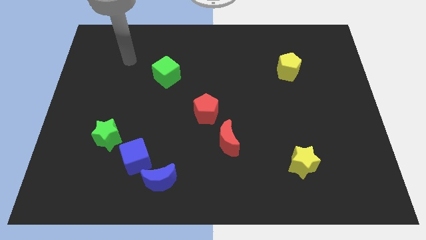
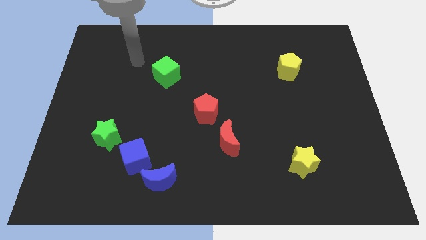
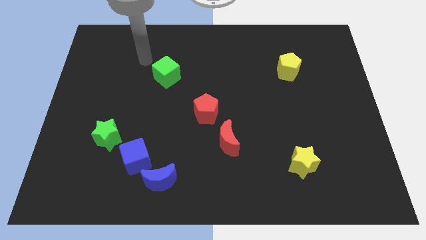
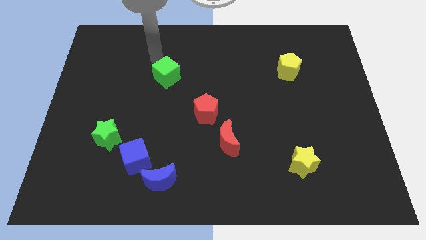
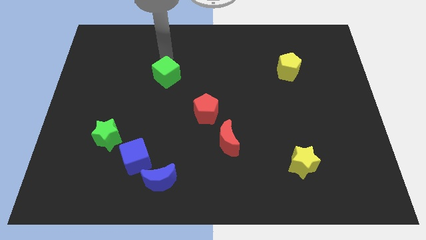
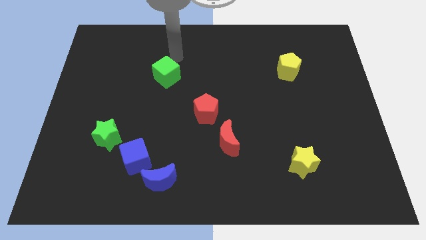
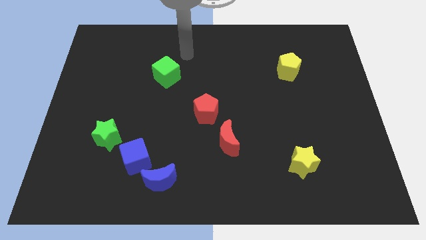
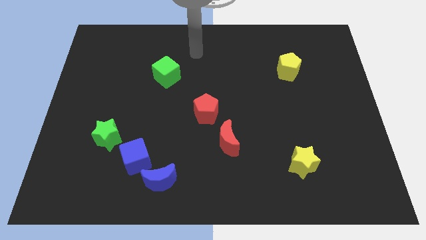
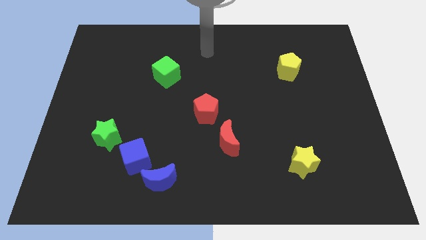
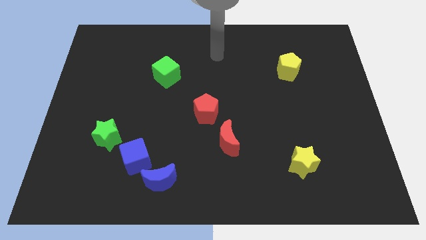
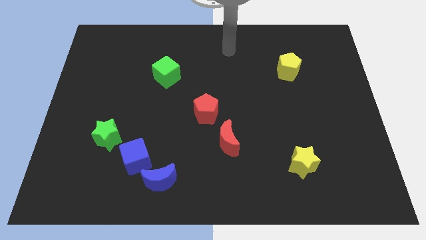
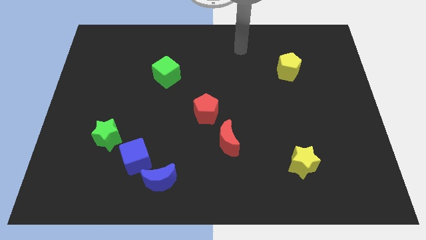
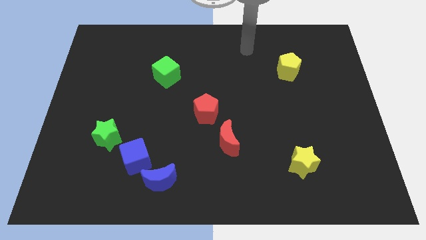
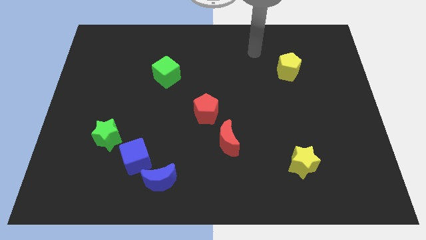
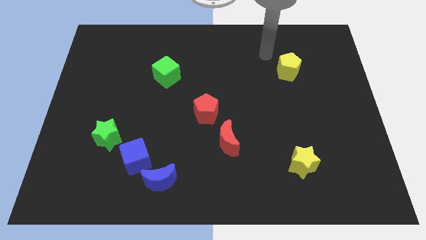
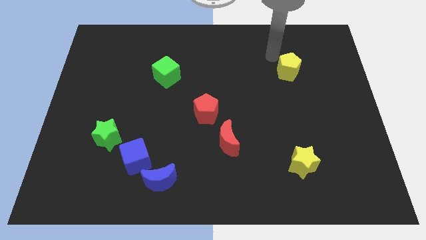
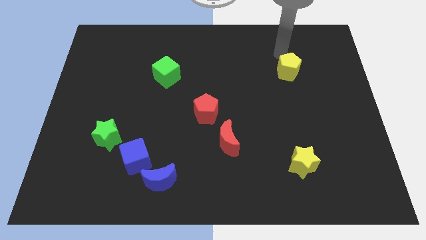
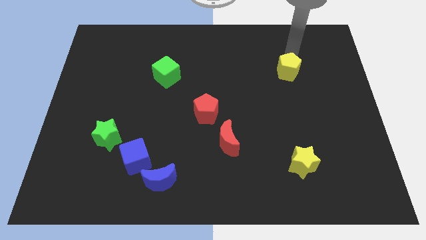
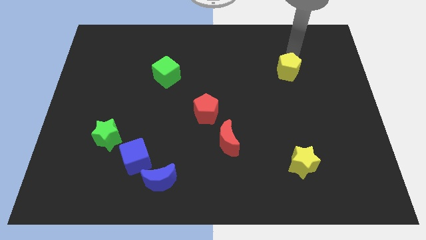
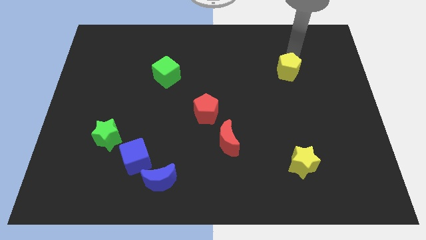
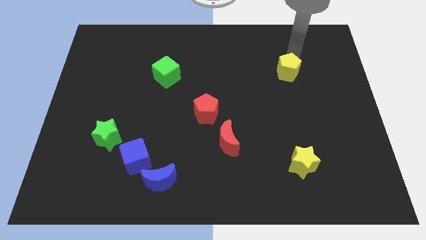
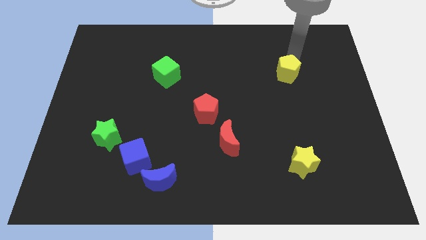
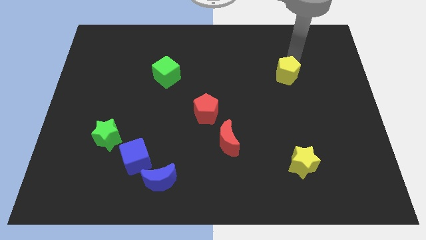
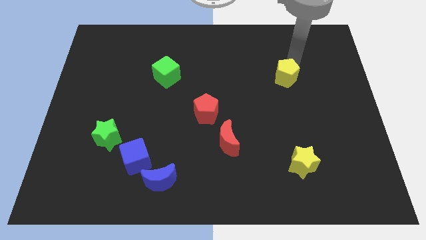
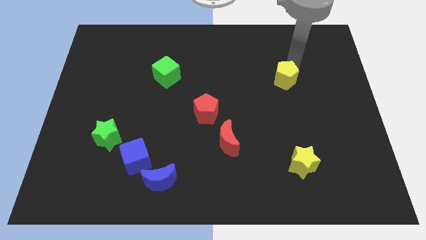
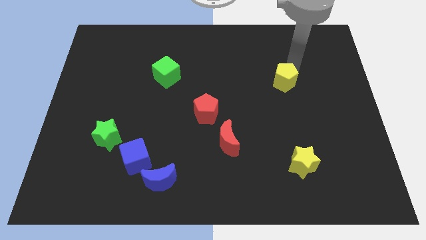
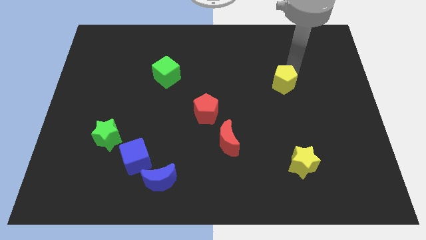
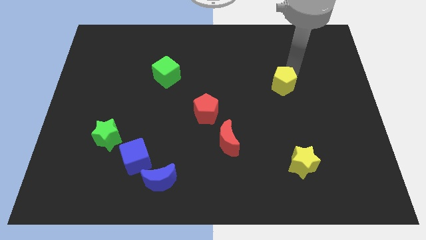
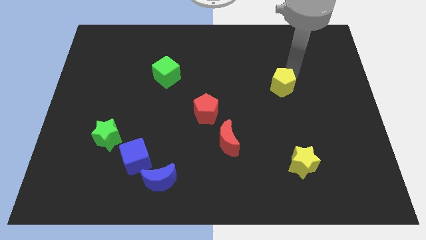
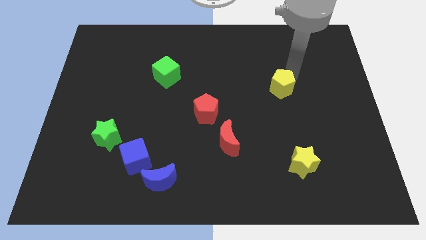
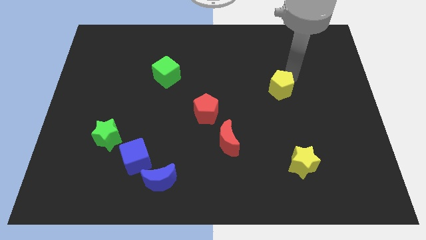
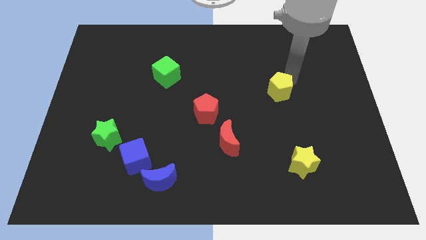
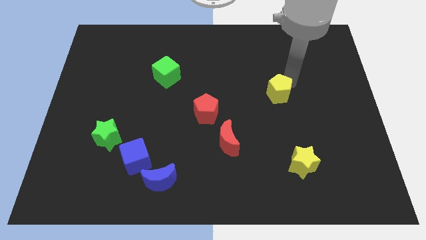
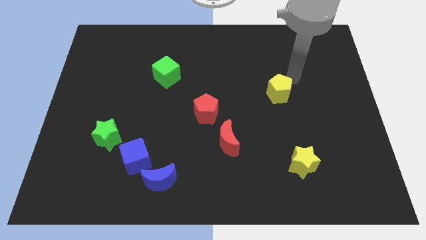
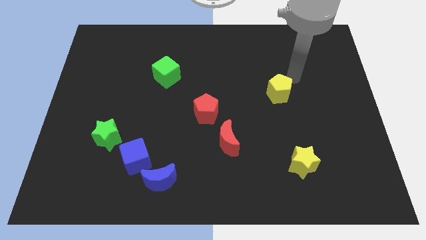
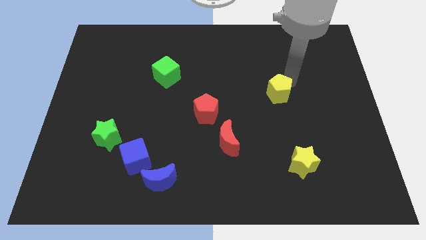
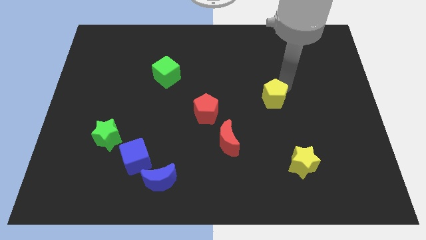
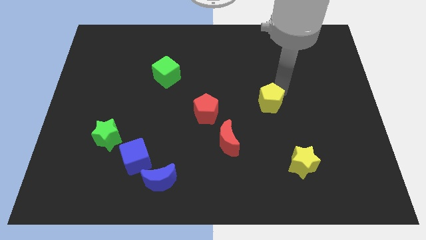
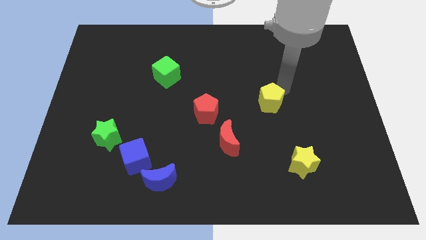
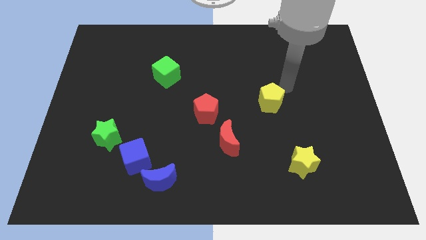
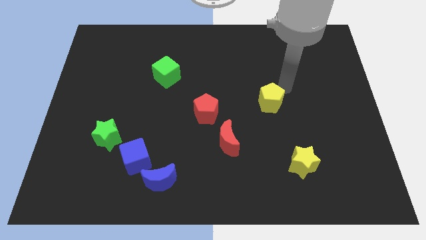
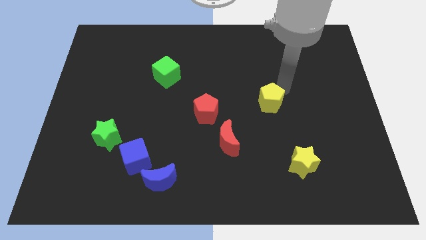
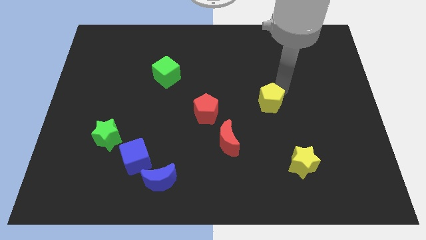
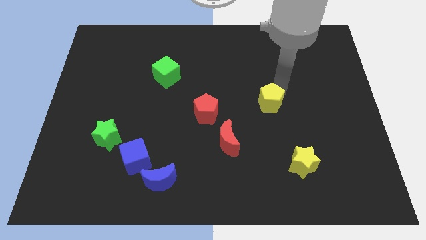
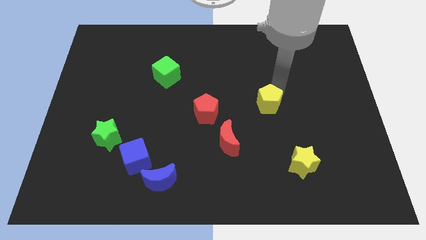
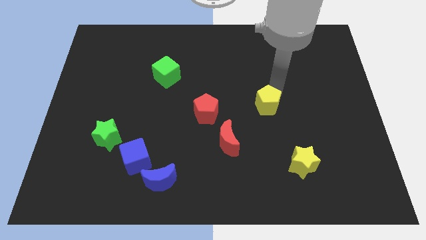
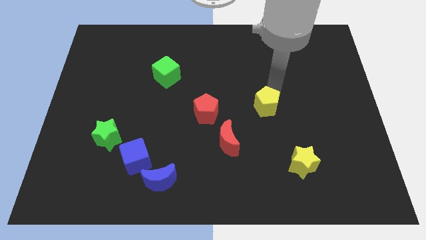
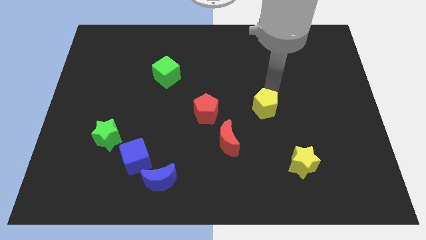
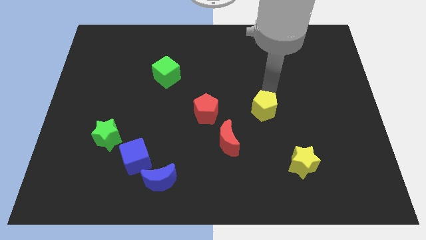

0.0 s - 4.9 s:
move the yellow pentagon to the top right side of the red moon

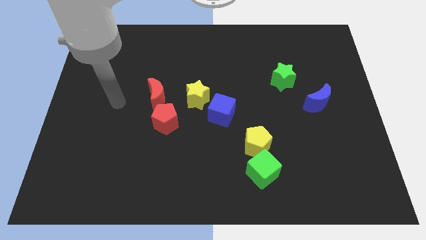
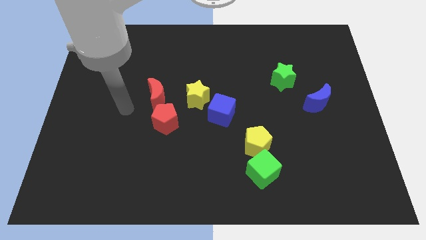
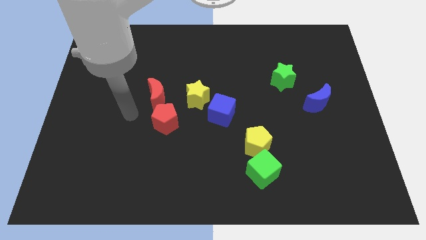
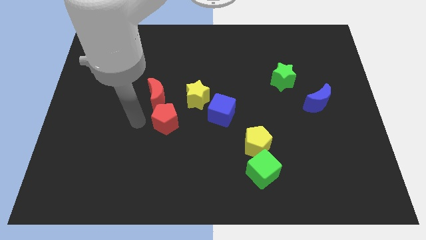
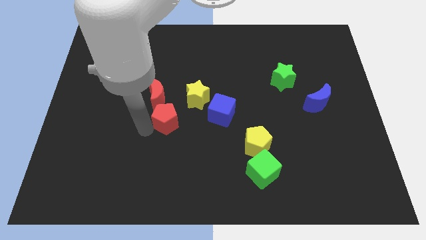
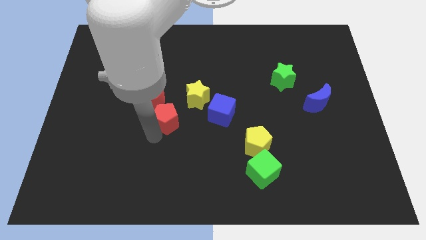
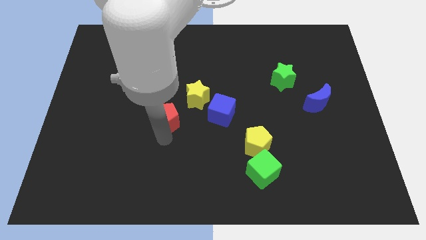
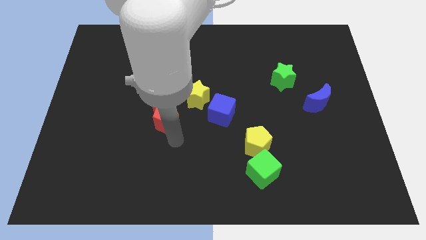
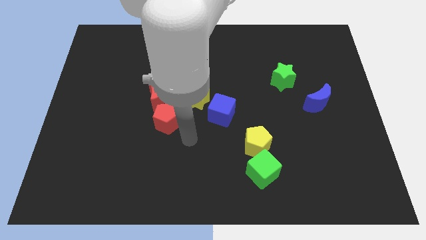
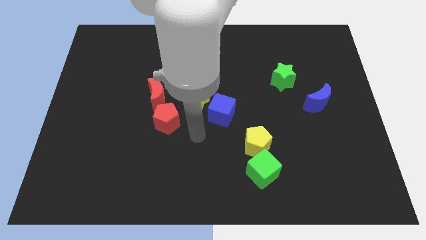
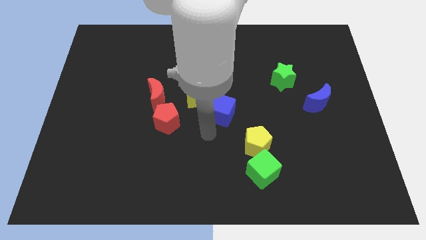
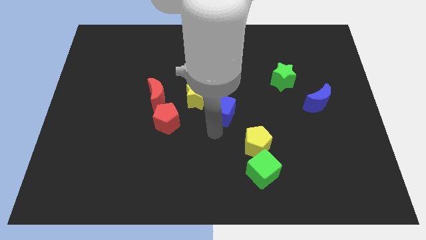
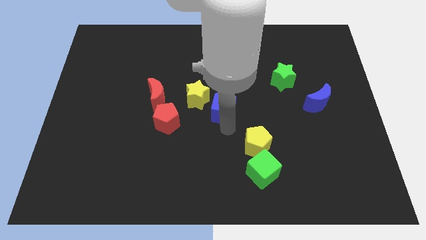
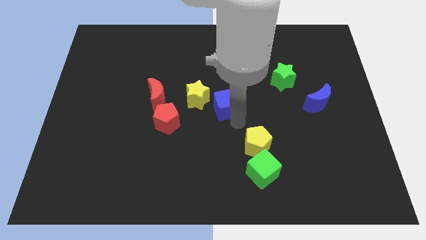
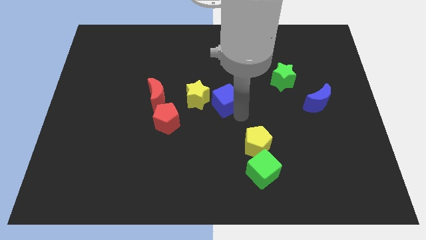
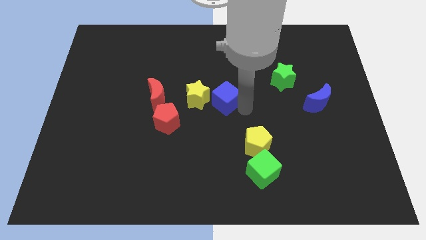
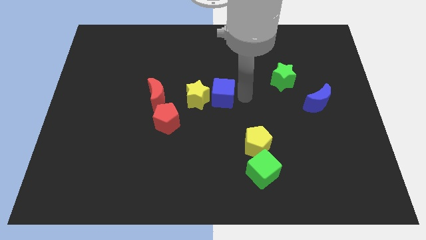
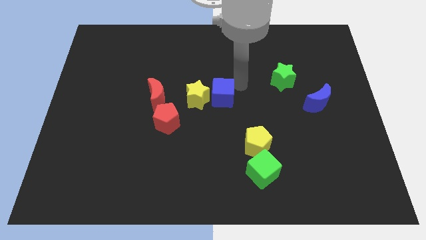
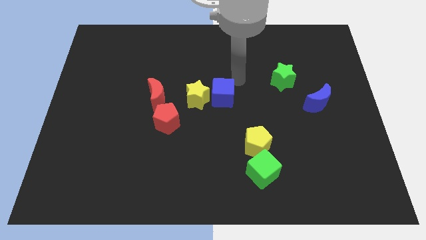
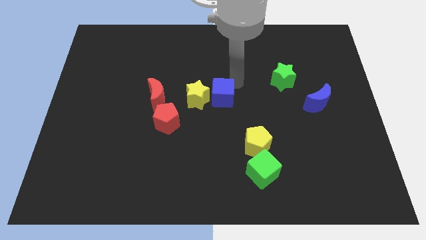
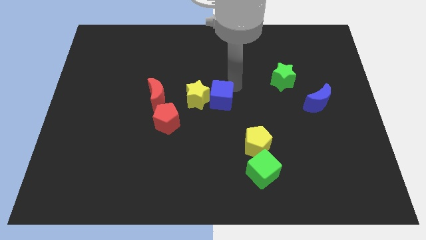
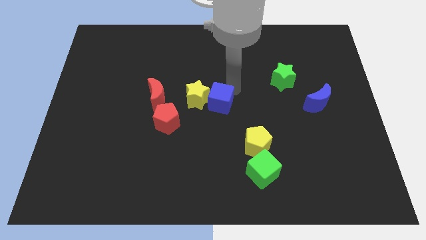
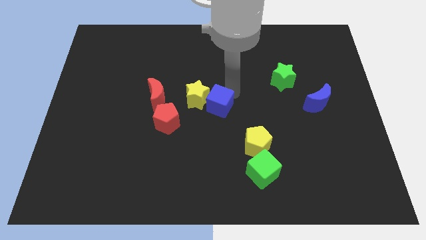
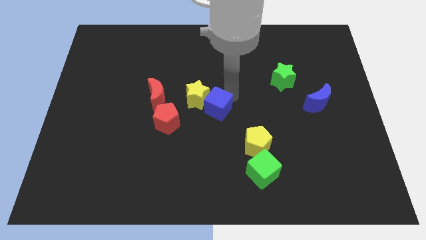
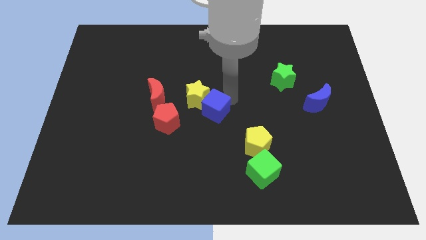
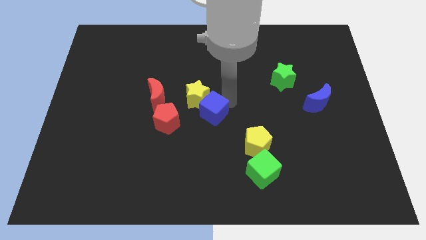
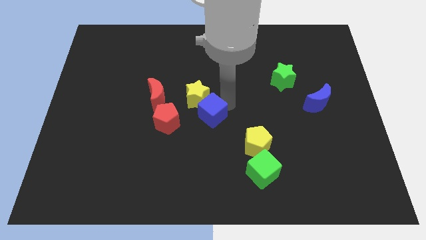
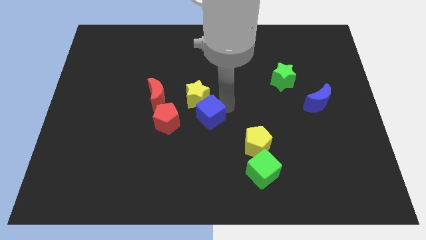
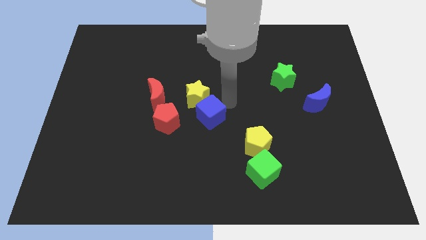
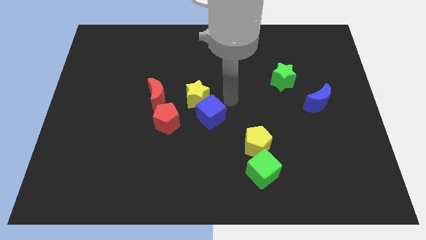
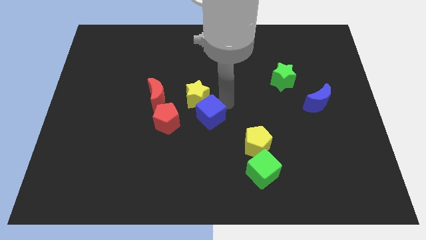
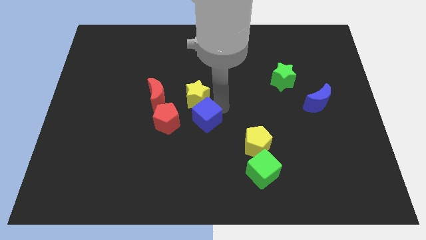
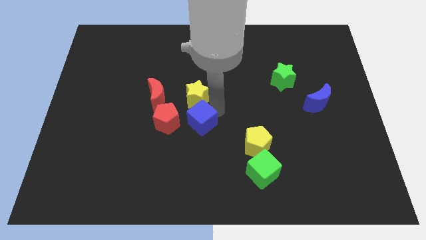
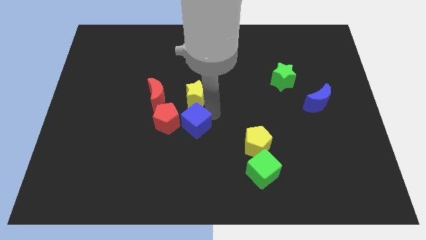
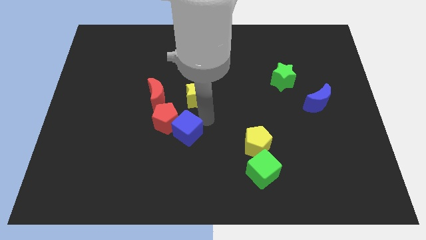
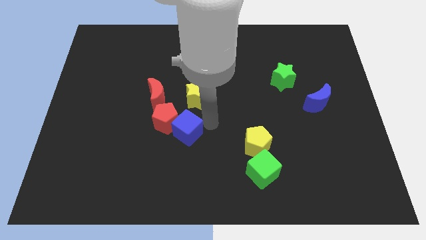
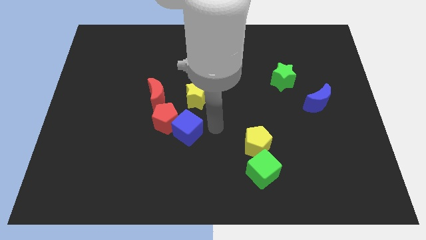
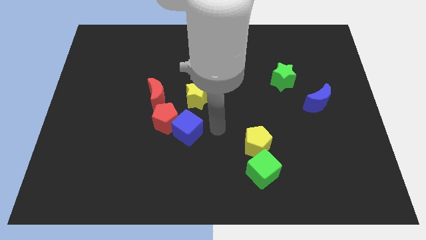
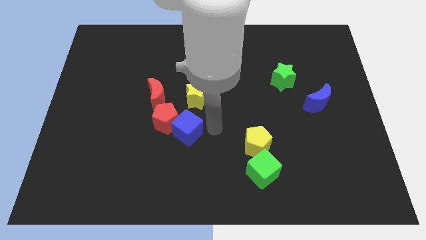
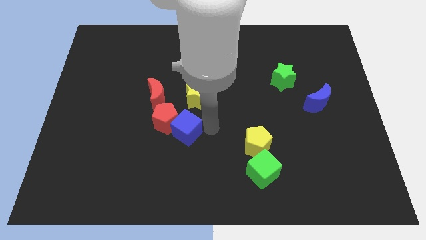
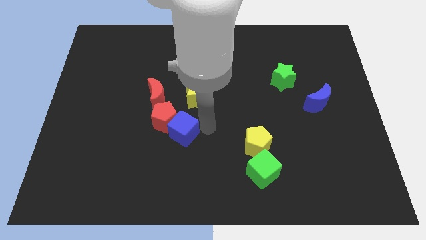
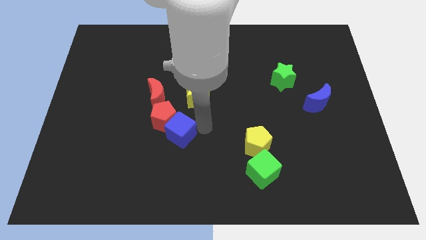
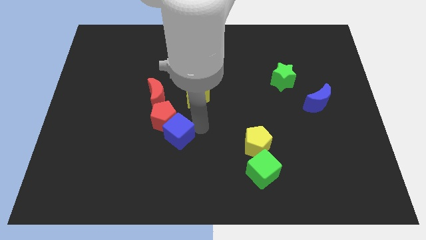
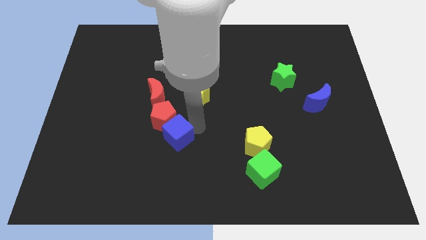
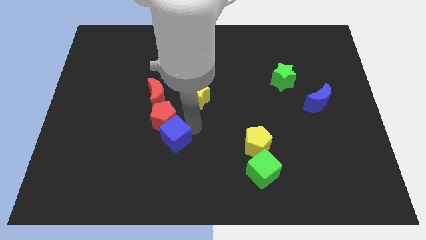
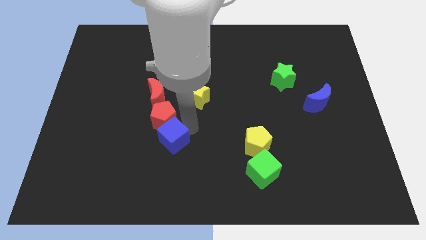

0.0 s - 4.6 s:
put the blue cube to the bottom side of the red moon
